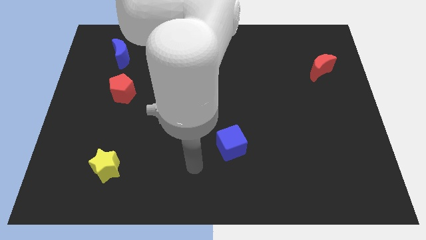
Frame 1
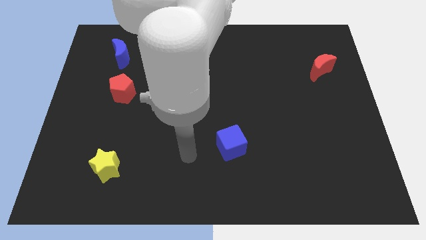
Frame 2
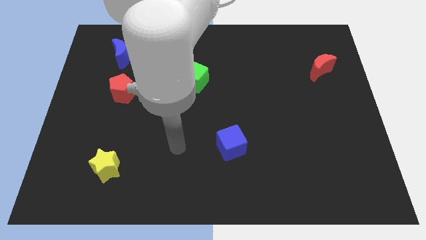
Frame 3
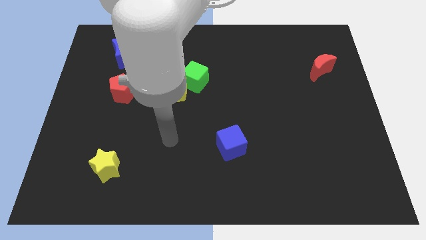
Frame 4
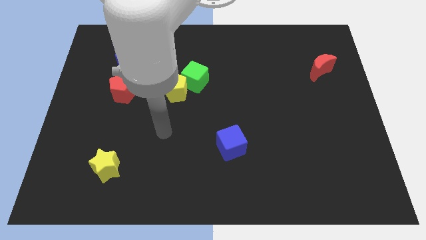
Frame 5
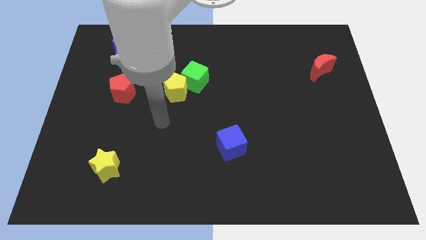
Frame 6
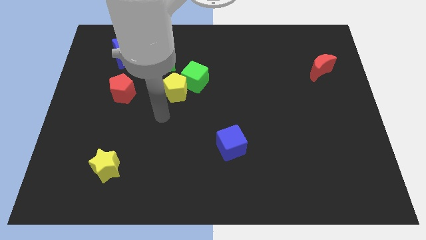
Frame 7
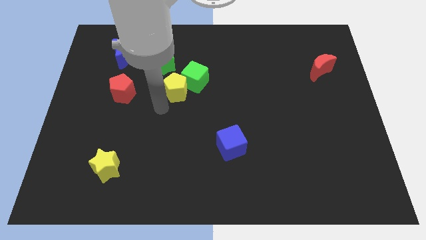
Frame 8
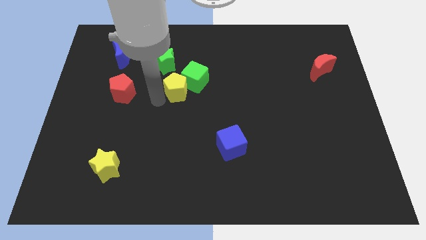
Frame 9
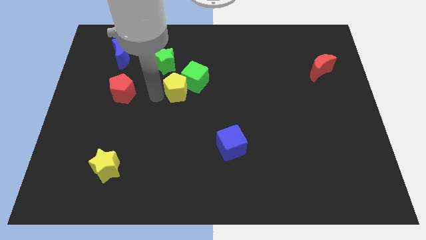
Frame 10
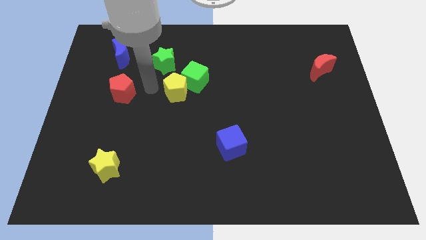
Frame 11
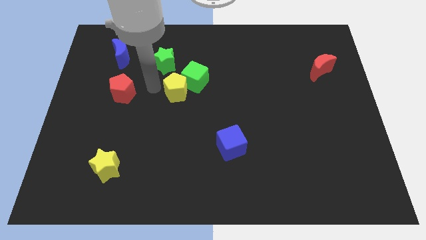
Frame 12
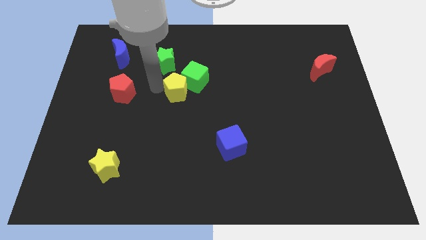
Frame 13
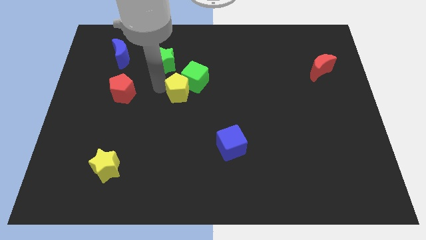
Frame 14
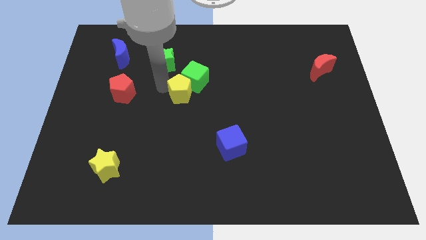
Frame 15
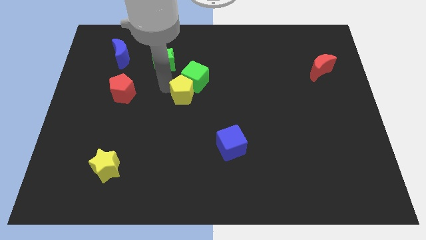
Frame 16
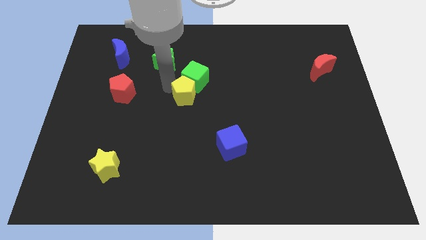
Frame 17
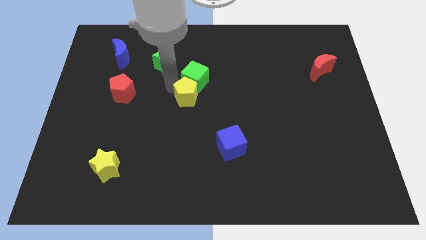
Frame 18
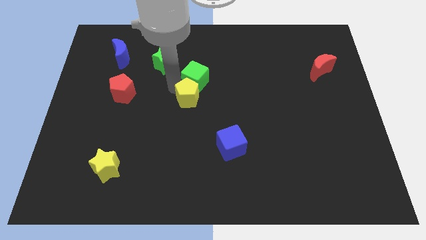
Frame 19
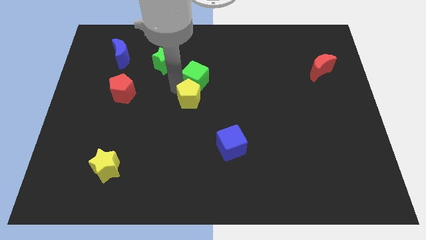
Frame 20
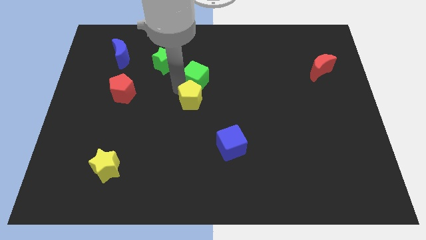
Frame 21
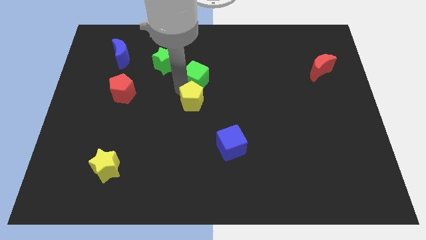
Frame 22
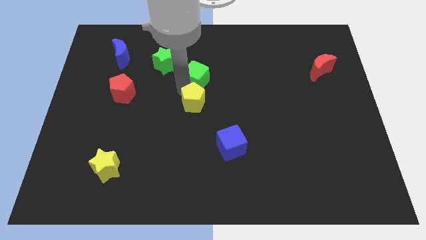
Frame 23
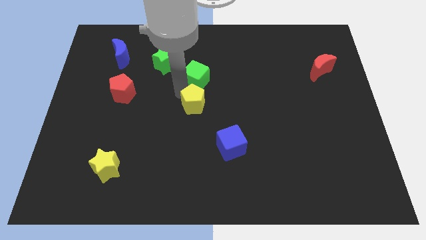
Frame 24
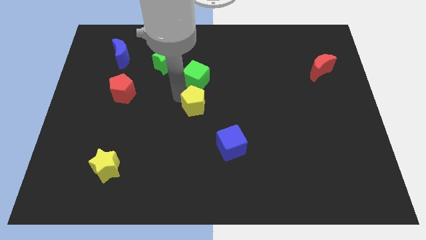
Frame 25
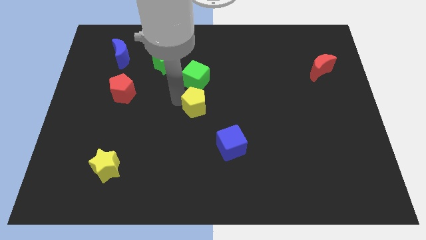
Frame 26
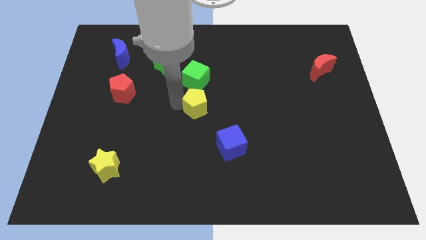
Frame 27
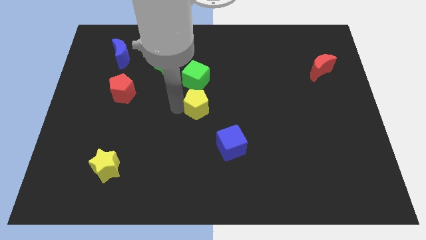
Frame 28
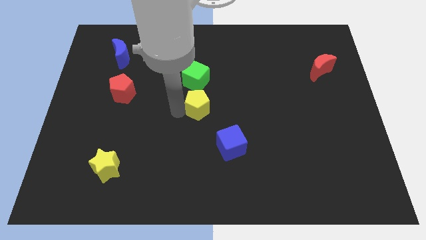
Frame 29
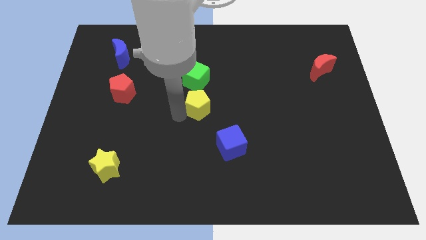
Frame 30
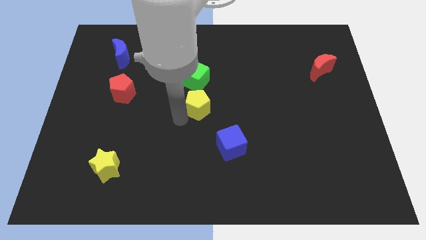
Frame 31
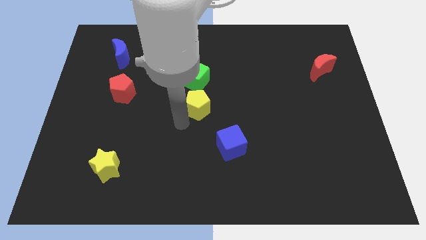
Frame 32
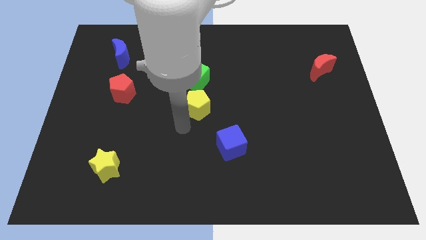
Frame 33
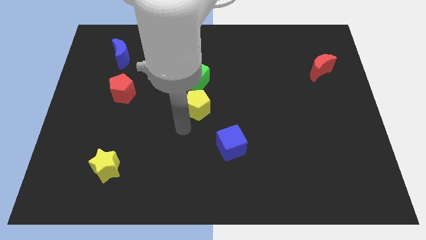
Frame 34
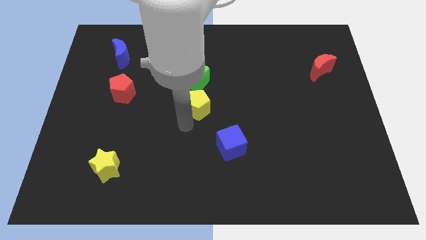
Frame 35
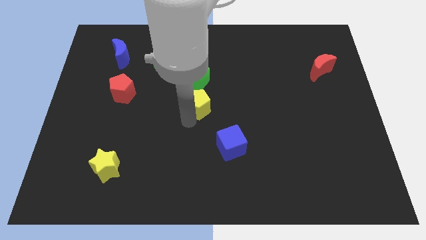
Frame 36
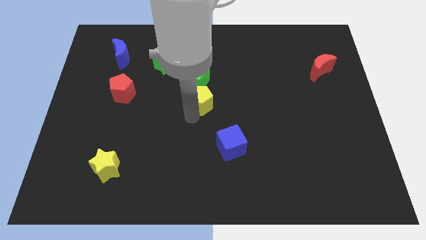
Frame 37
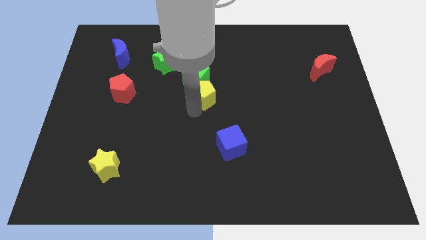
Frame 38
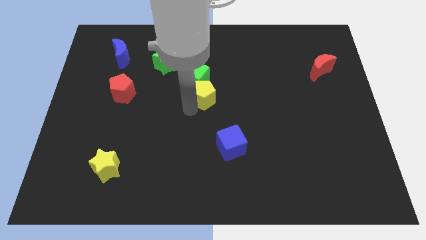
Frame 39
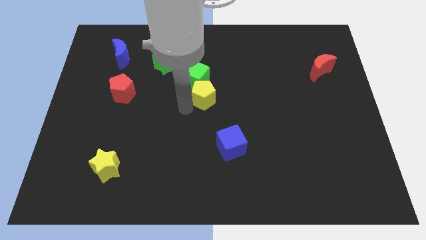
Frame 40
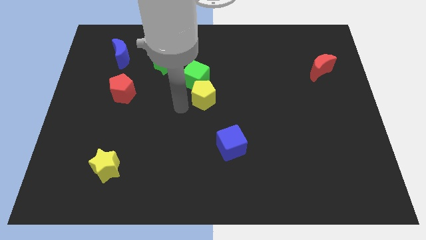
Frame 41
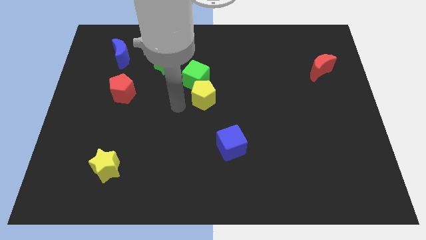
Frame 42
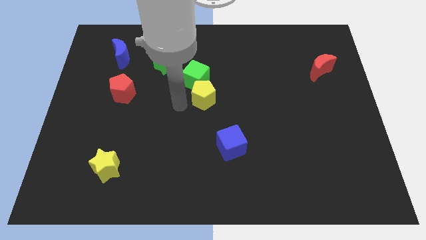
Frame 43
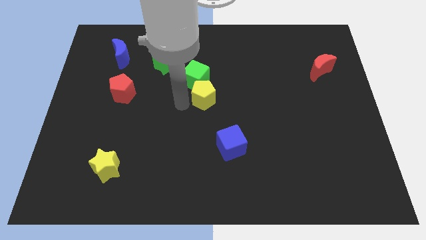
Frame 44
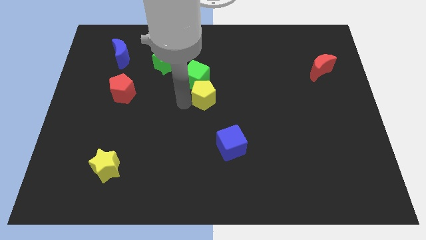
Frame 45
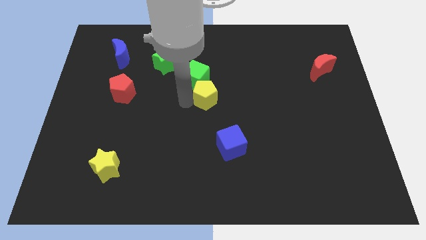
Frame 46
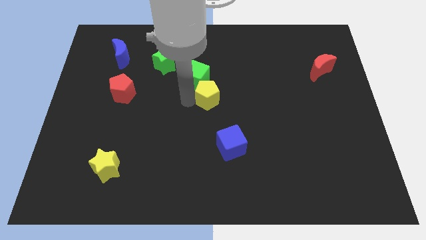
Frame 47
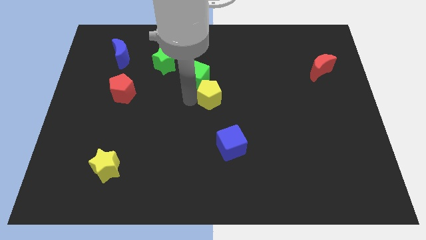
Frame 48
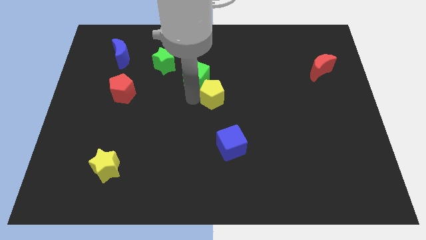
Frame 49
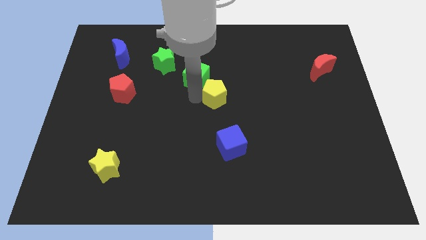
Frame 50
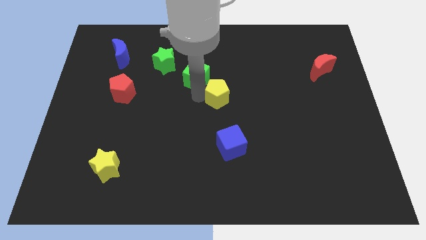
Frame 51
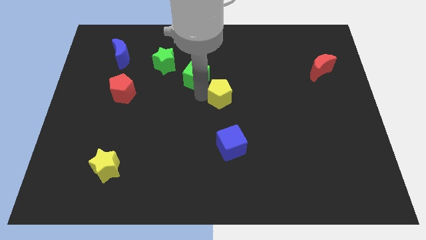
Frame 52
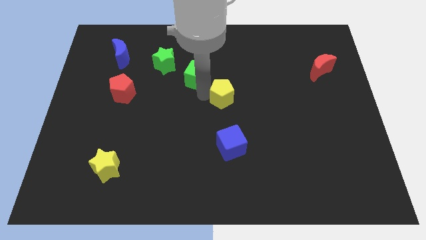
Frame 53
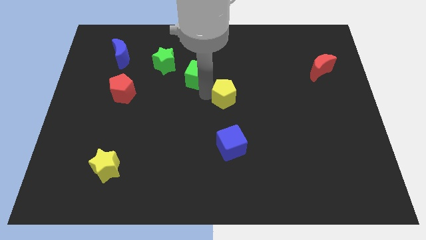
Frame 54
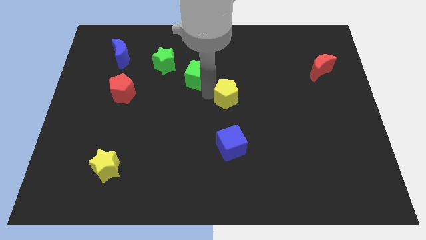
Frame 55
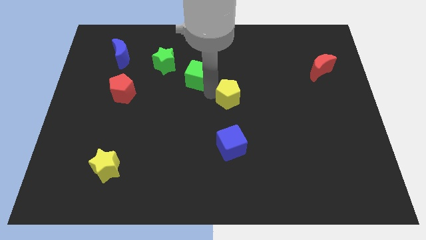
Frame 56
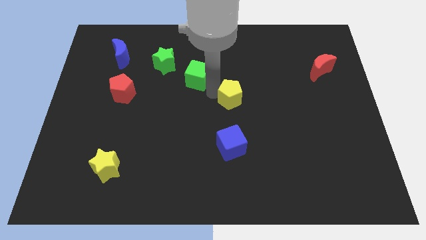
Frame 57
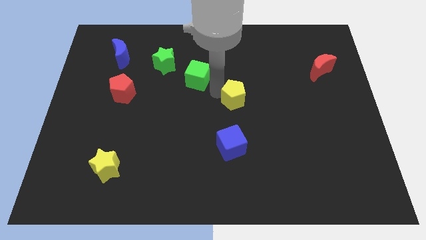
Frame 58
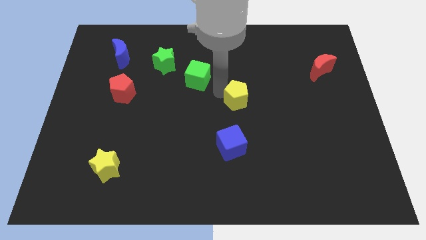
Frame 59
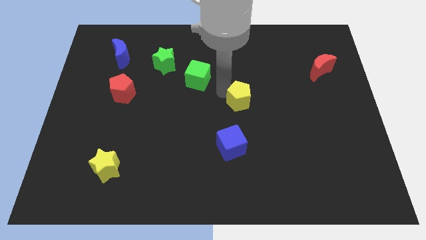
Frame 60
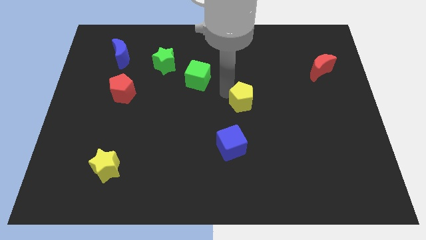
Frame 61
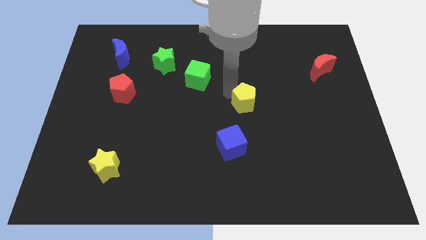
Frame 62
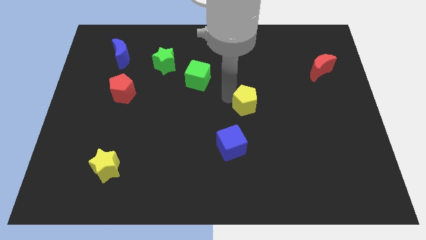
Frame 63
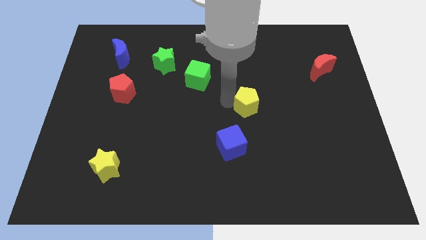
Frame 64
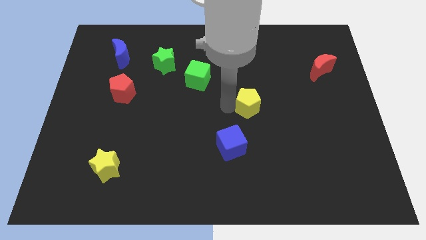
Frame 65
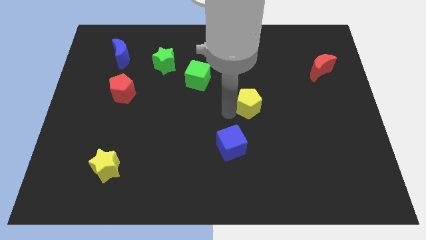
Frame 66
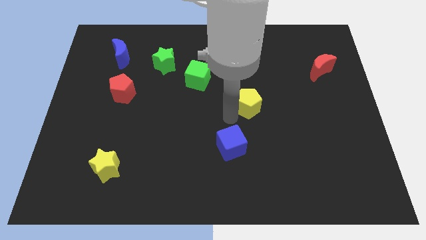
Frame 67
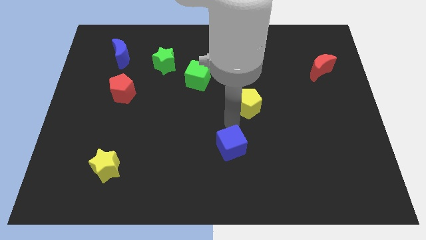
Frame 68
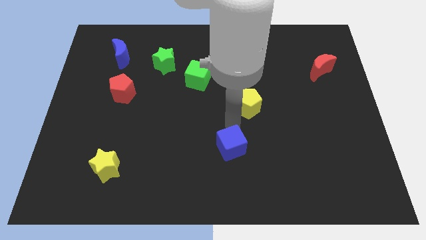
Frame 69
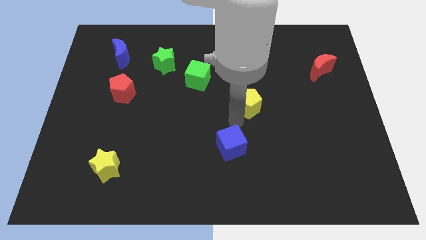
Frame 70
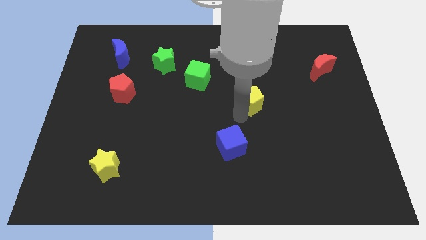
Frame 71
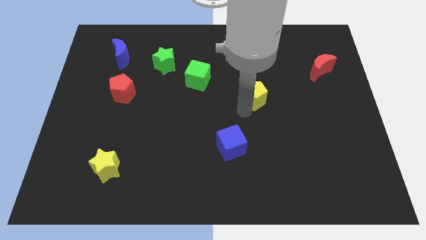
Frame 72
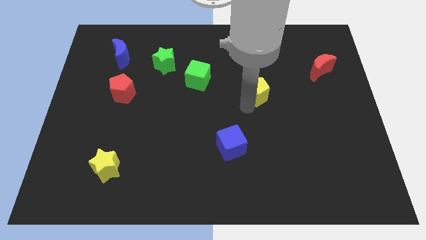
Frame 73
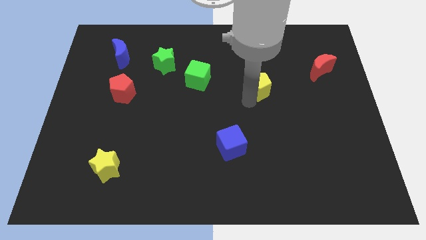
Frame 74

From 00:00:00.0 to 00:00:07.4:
slide the yellow pentagon to the right
